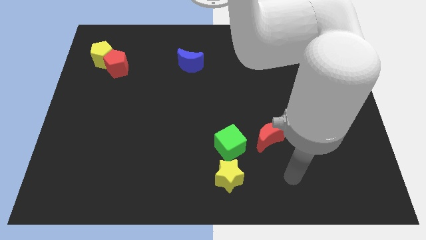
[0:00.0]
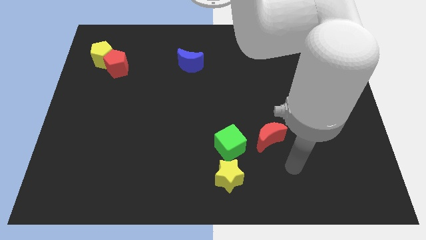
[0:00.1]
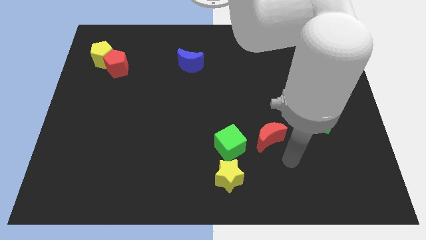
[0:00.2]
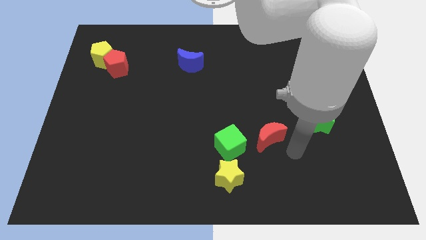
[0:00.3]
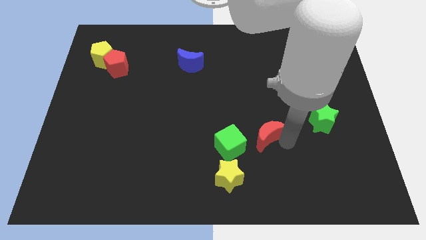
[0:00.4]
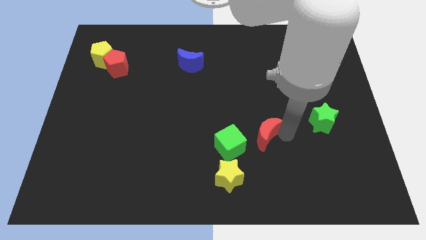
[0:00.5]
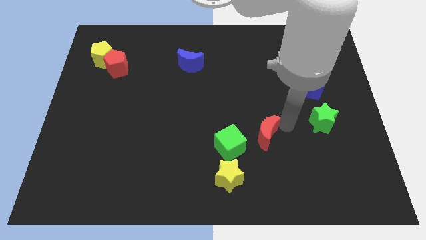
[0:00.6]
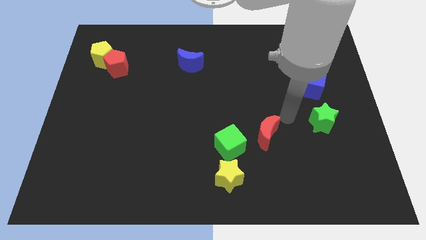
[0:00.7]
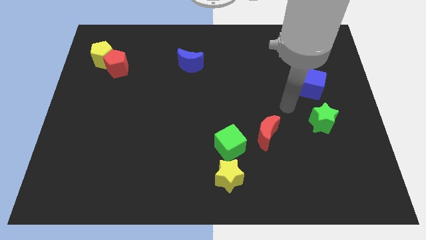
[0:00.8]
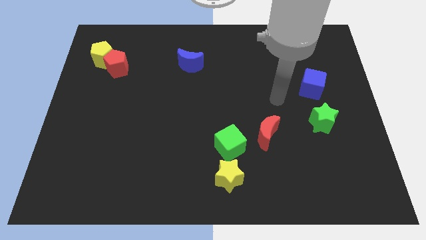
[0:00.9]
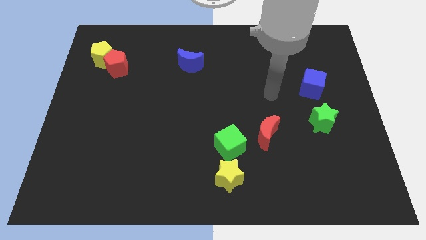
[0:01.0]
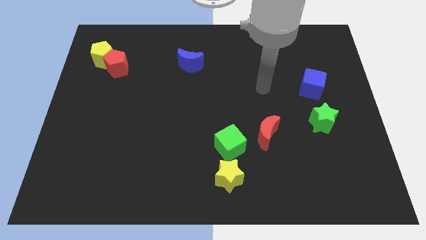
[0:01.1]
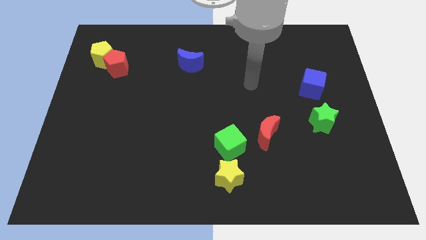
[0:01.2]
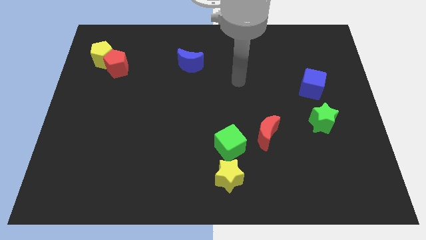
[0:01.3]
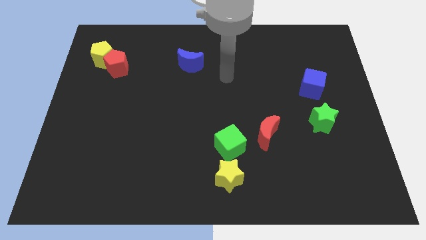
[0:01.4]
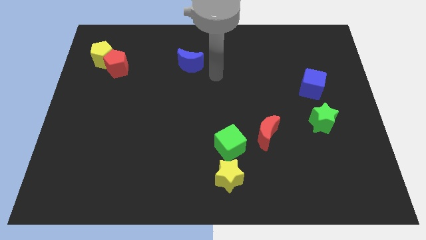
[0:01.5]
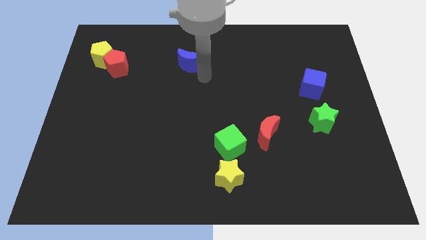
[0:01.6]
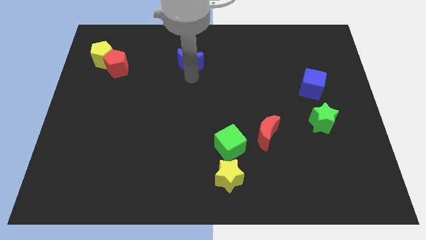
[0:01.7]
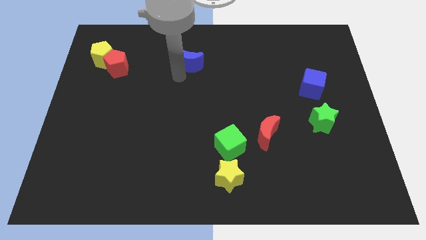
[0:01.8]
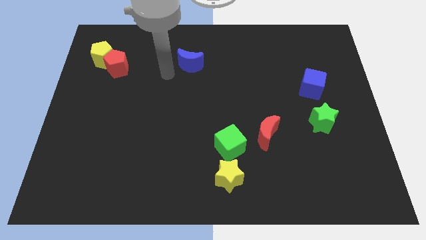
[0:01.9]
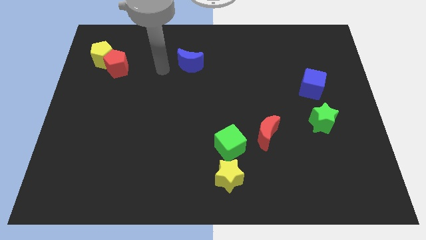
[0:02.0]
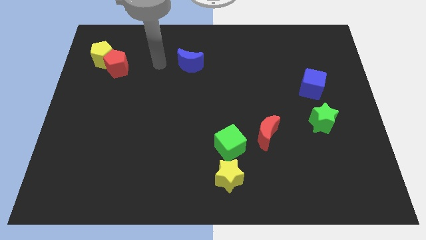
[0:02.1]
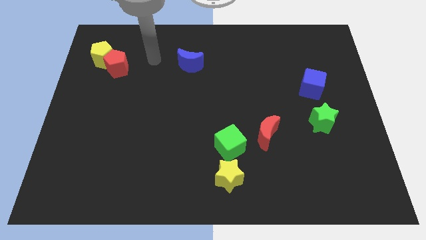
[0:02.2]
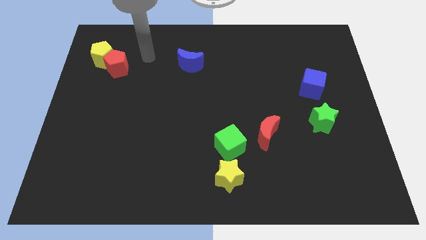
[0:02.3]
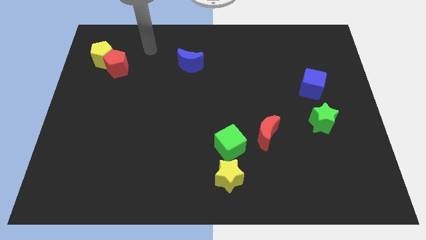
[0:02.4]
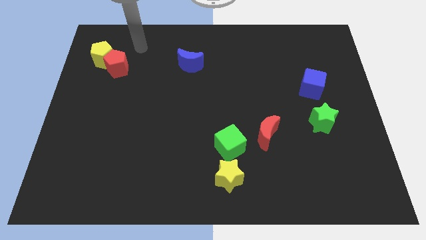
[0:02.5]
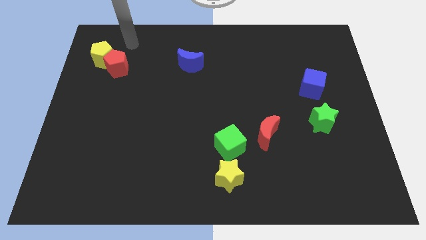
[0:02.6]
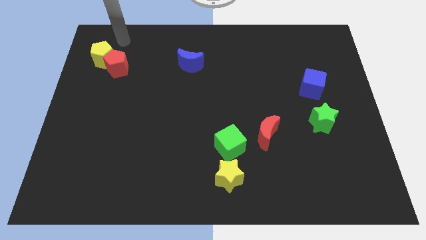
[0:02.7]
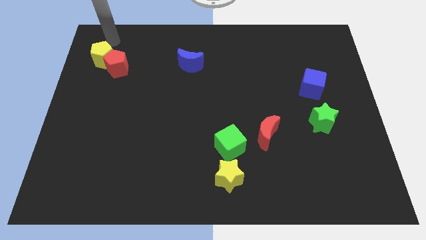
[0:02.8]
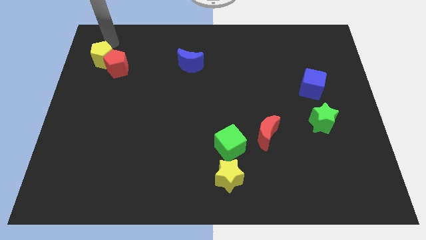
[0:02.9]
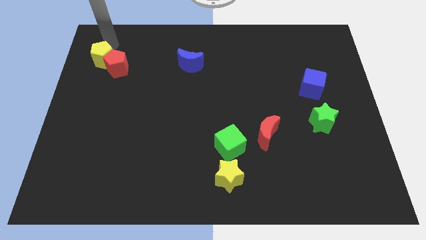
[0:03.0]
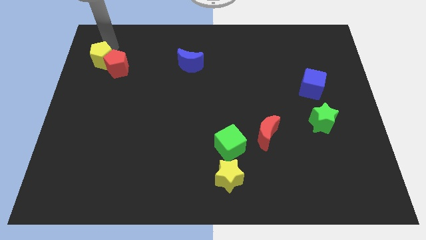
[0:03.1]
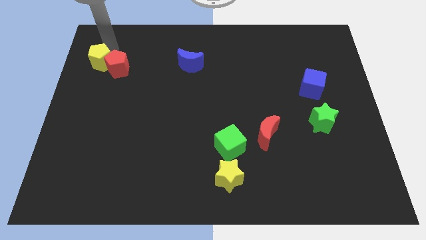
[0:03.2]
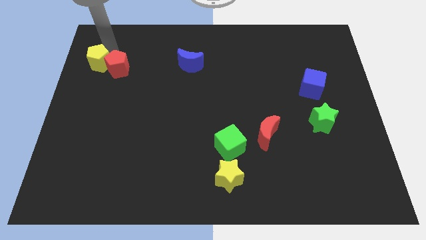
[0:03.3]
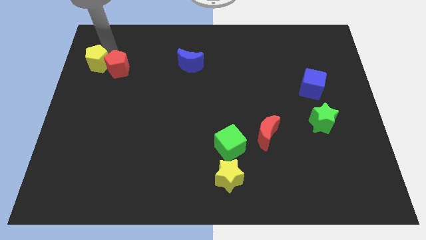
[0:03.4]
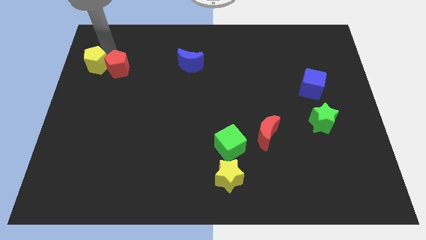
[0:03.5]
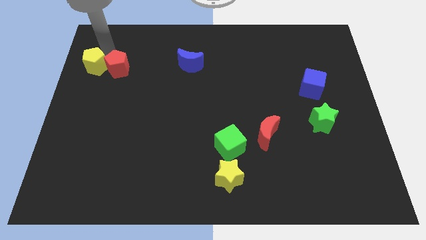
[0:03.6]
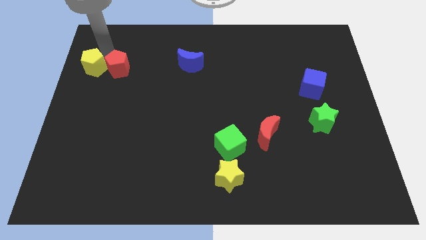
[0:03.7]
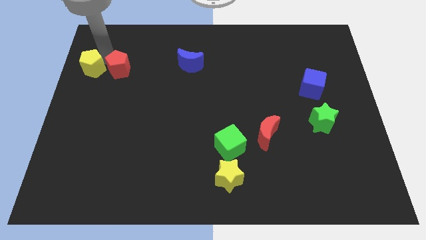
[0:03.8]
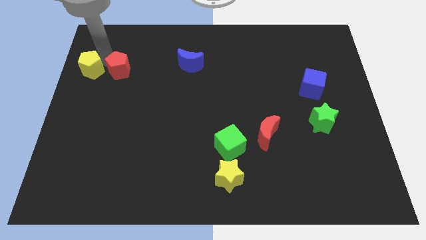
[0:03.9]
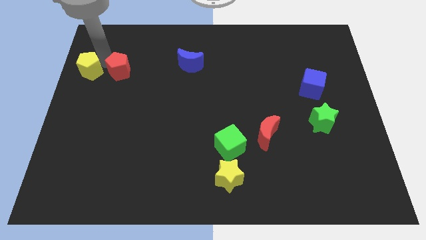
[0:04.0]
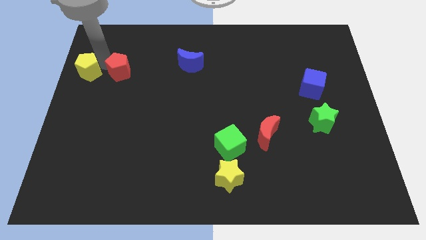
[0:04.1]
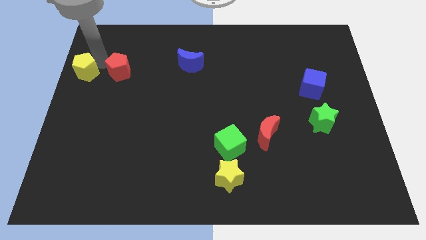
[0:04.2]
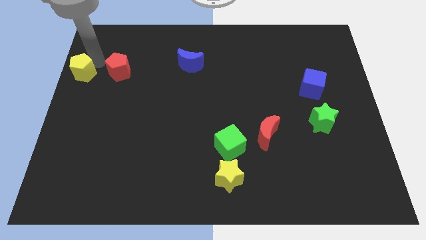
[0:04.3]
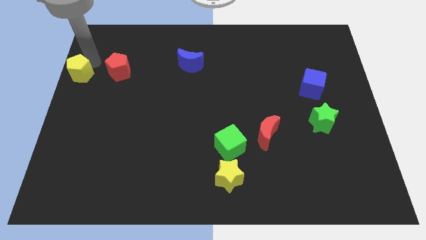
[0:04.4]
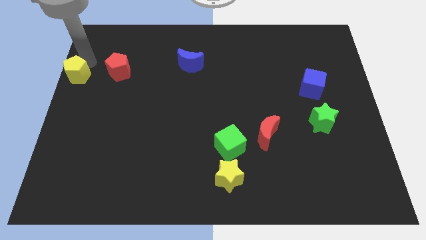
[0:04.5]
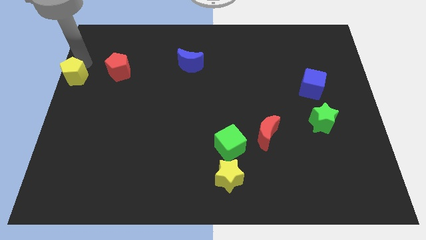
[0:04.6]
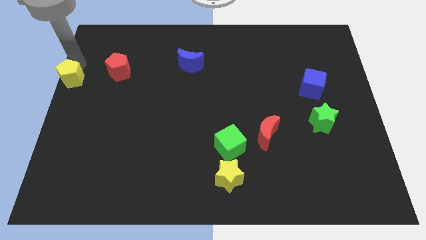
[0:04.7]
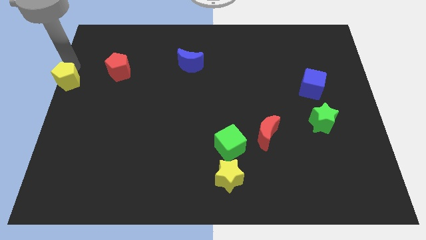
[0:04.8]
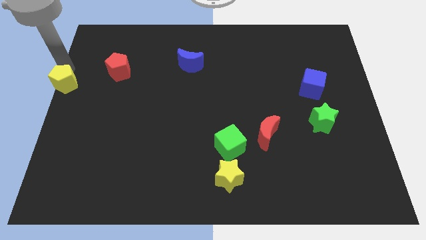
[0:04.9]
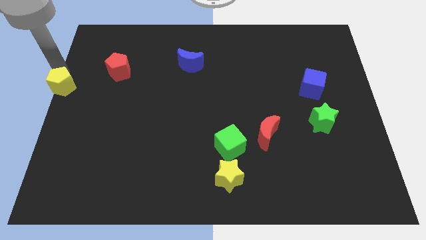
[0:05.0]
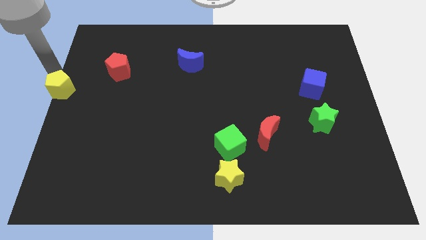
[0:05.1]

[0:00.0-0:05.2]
move the yellow pentagon a little bit down

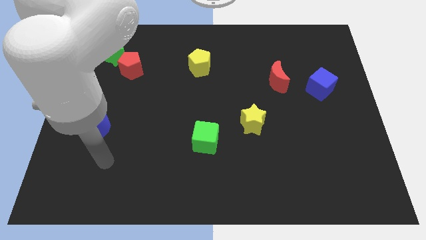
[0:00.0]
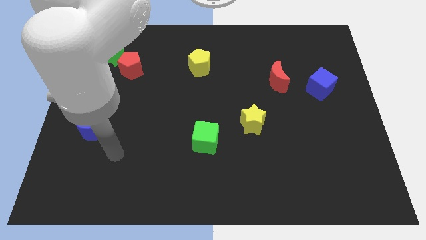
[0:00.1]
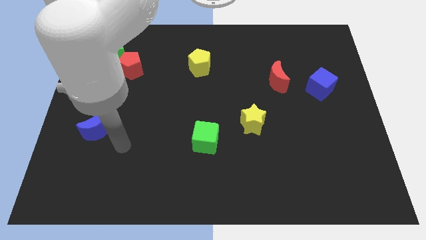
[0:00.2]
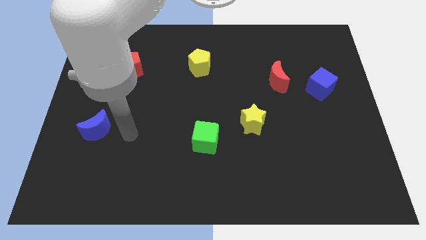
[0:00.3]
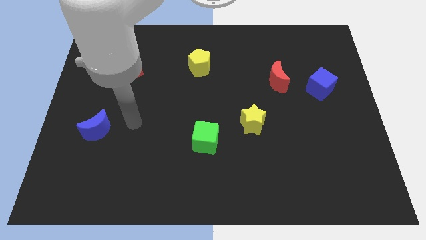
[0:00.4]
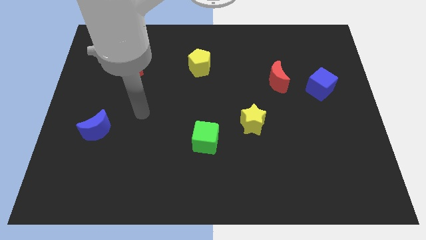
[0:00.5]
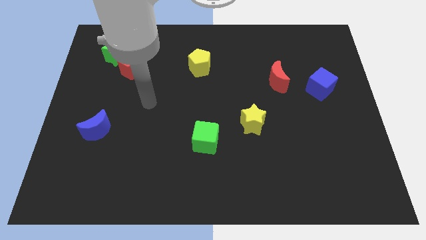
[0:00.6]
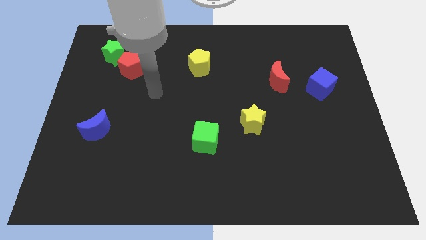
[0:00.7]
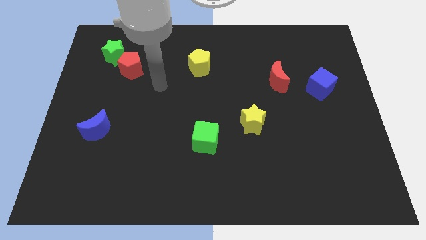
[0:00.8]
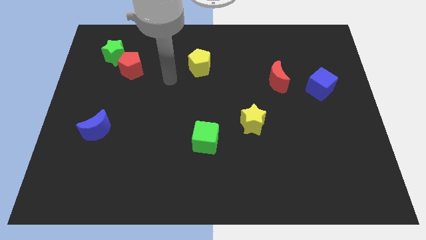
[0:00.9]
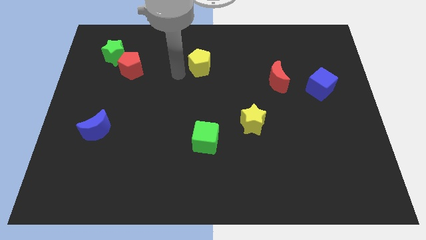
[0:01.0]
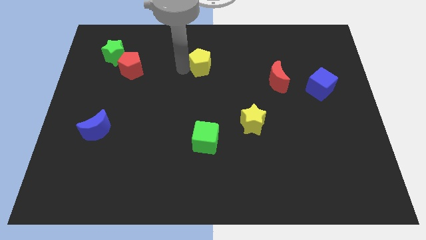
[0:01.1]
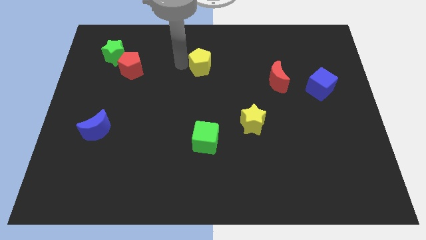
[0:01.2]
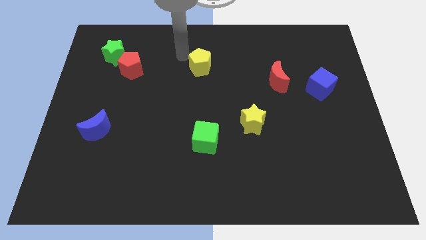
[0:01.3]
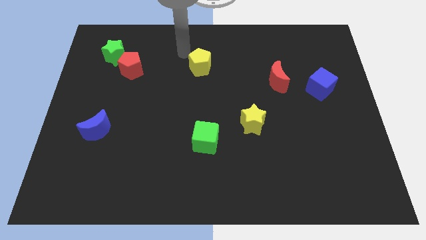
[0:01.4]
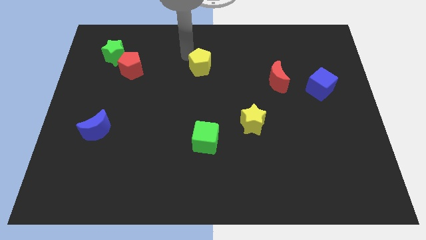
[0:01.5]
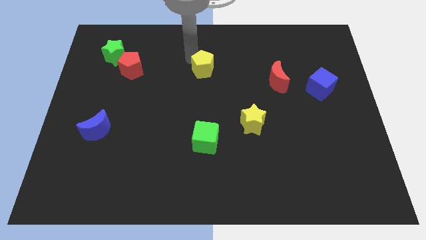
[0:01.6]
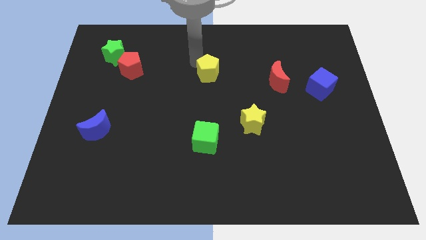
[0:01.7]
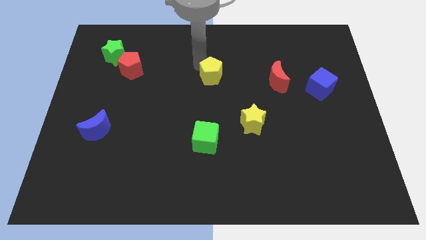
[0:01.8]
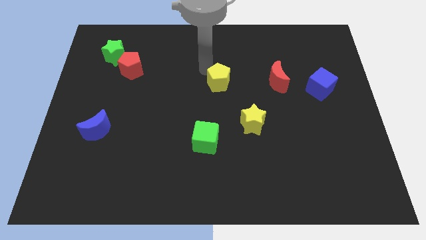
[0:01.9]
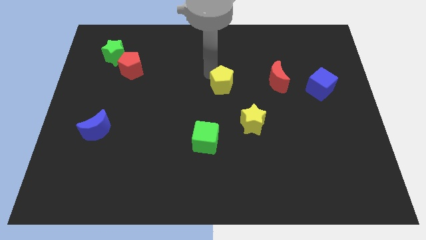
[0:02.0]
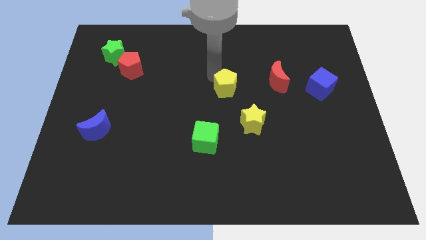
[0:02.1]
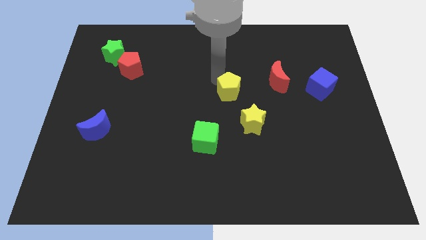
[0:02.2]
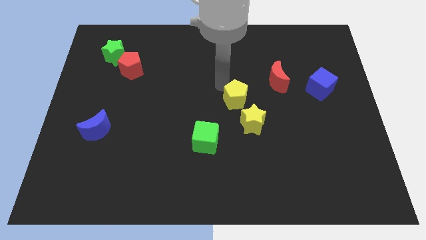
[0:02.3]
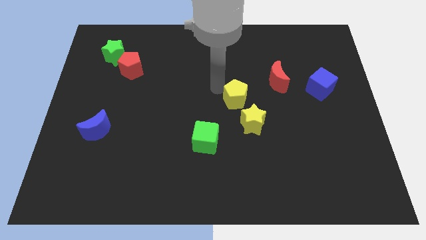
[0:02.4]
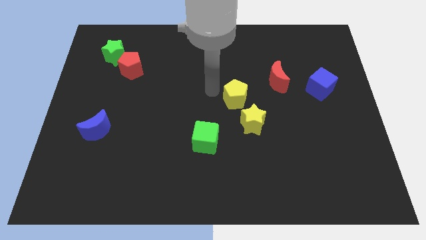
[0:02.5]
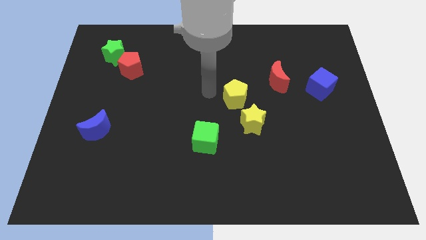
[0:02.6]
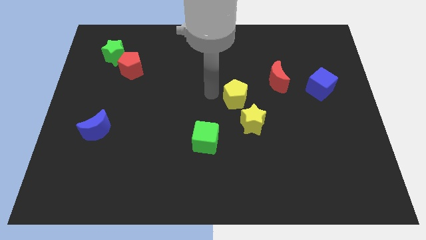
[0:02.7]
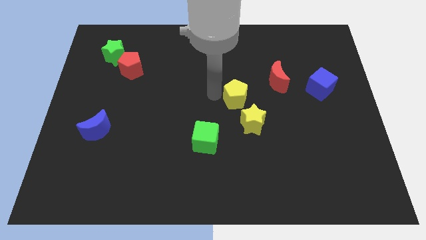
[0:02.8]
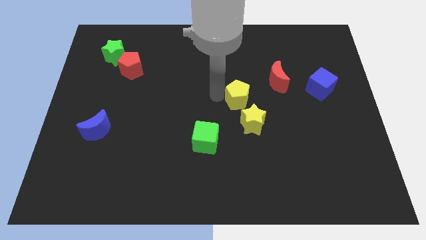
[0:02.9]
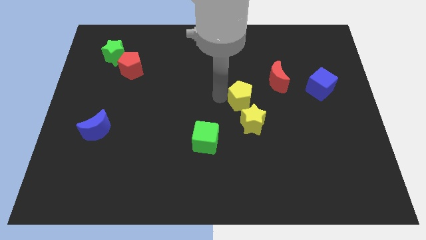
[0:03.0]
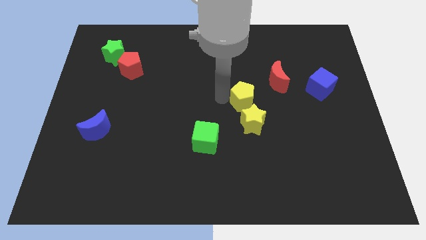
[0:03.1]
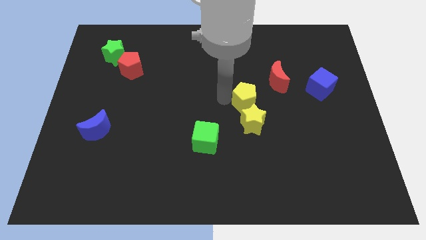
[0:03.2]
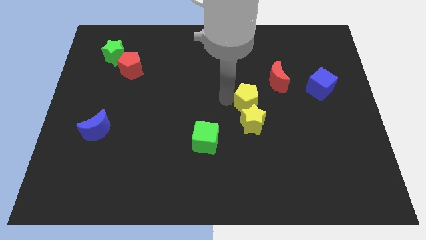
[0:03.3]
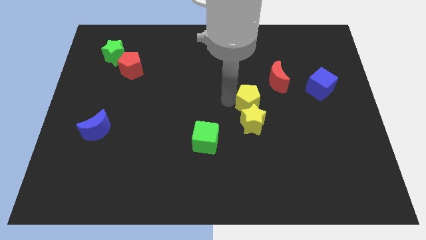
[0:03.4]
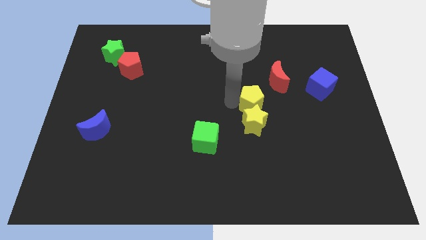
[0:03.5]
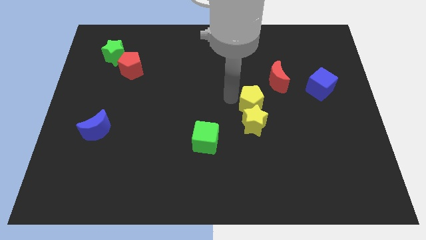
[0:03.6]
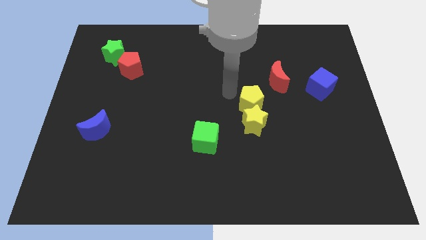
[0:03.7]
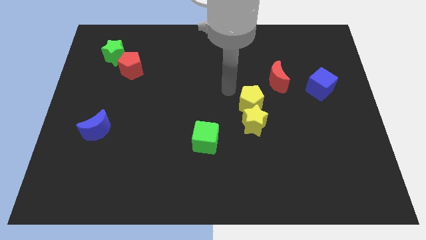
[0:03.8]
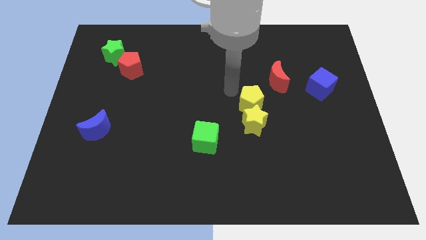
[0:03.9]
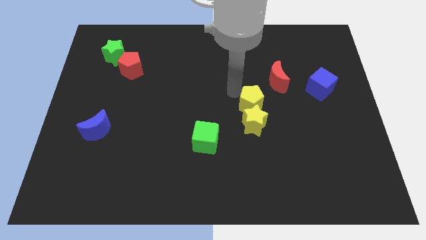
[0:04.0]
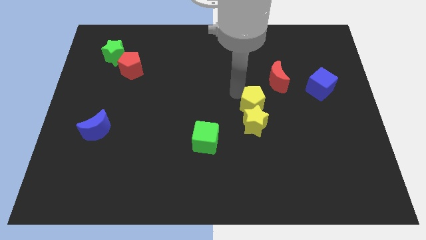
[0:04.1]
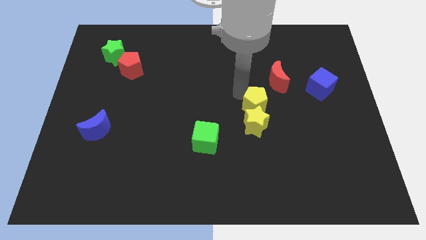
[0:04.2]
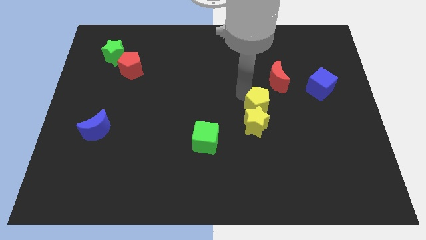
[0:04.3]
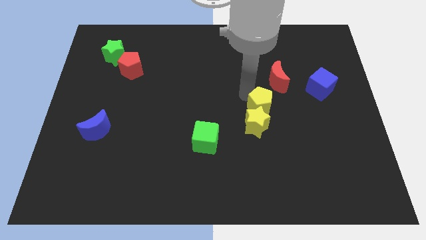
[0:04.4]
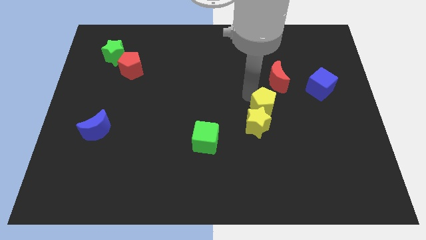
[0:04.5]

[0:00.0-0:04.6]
move the yellow pentagon down and then right
